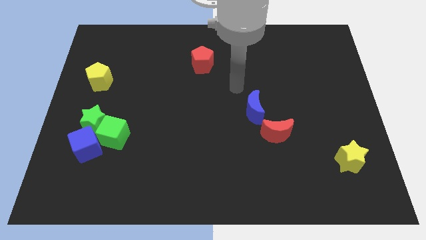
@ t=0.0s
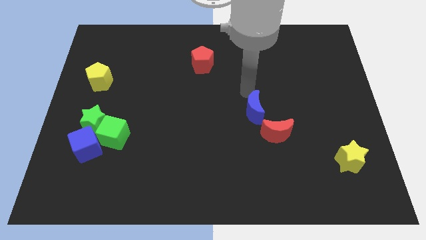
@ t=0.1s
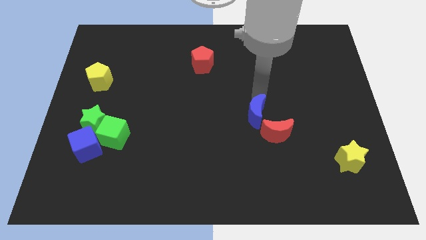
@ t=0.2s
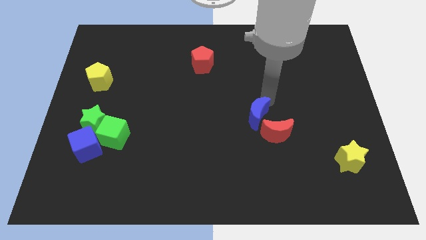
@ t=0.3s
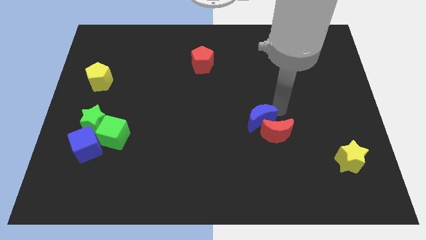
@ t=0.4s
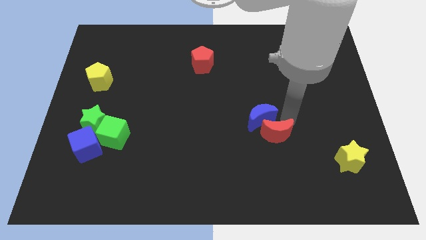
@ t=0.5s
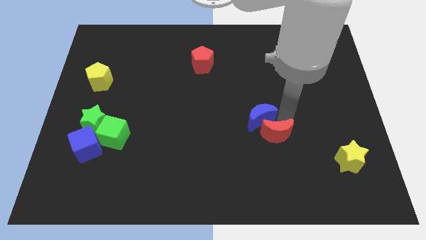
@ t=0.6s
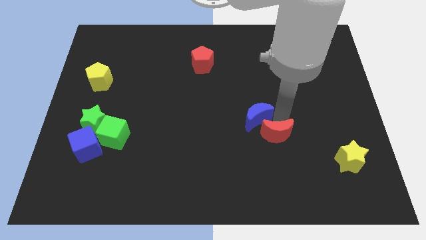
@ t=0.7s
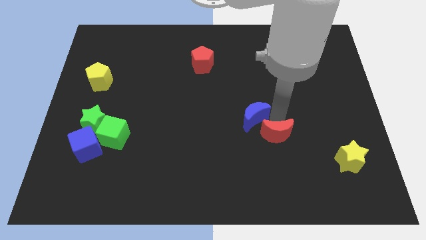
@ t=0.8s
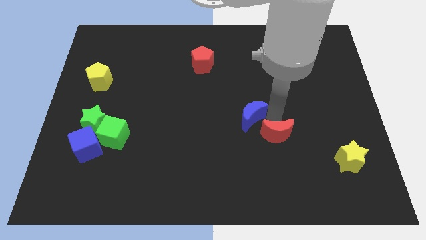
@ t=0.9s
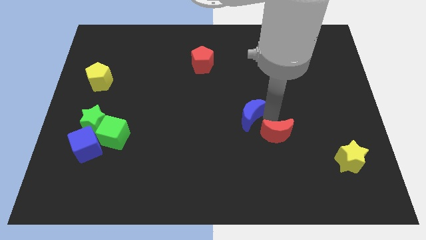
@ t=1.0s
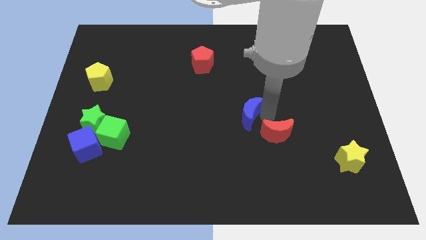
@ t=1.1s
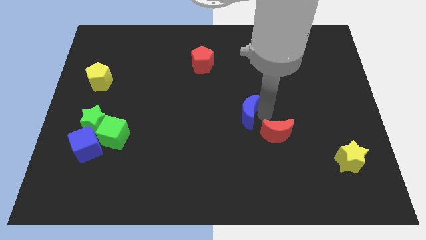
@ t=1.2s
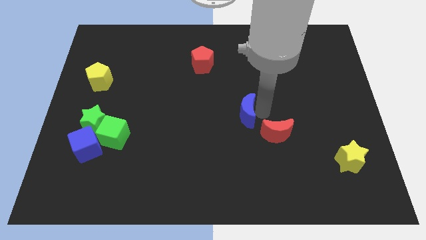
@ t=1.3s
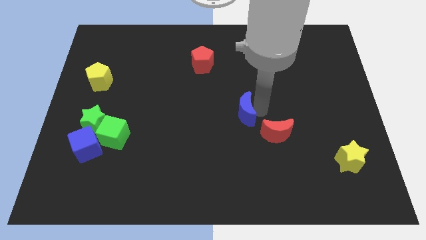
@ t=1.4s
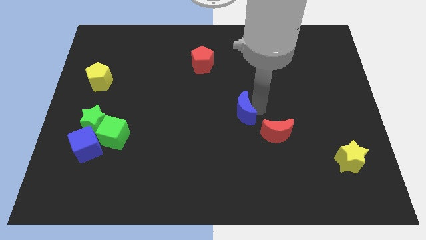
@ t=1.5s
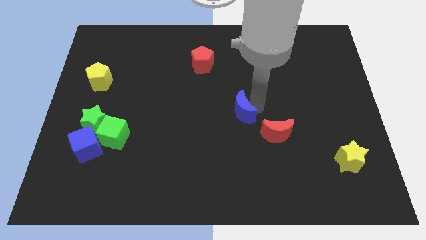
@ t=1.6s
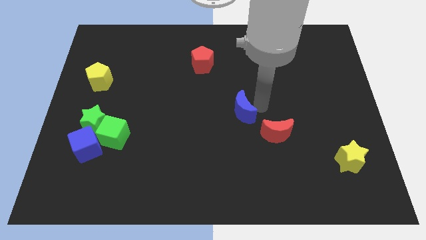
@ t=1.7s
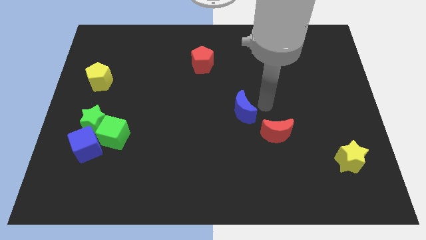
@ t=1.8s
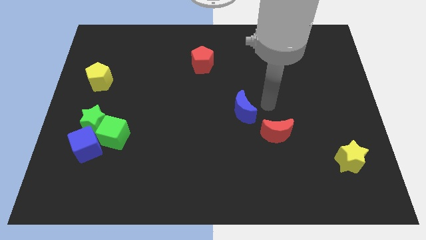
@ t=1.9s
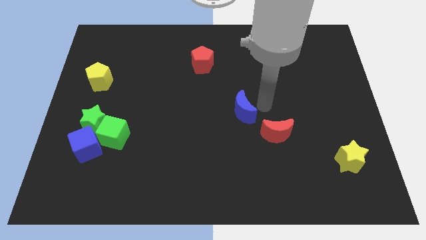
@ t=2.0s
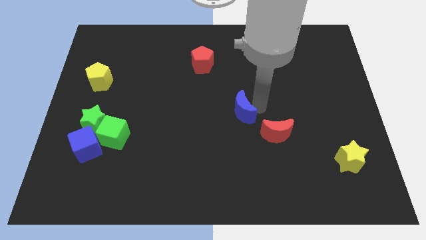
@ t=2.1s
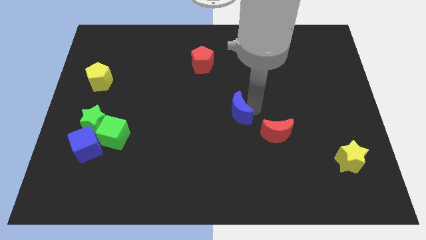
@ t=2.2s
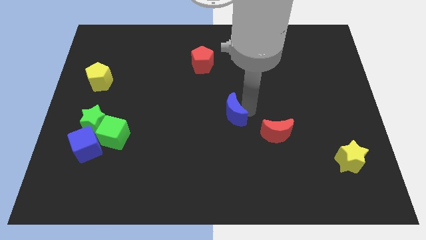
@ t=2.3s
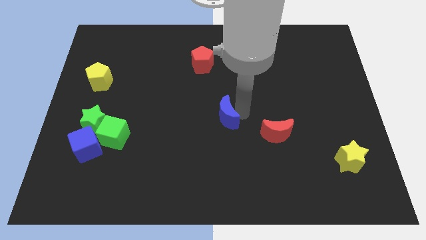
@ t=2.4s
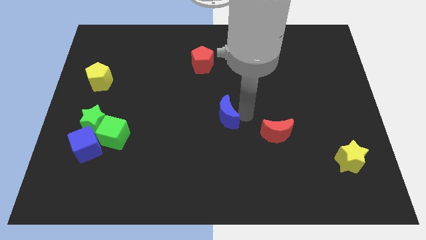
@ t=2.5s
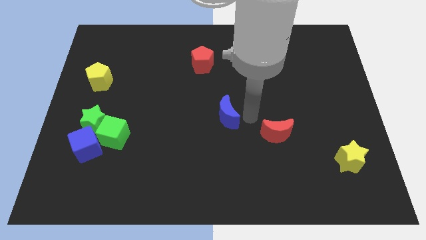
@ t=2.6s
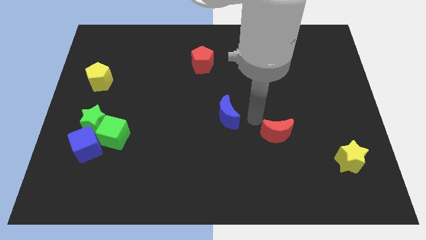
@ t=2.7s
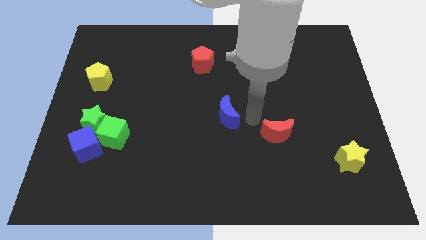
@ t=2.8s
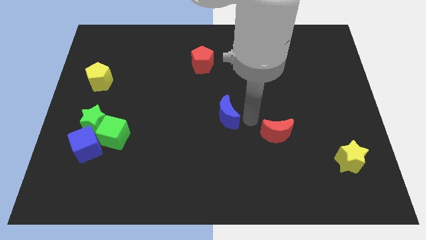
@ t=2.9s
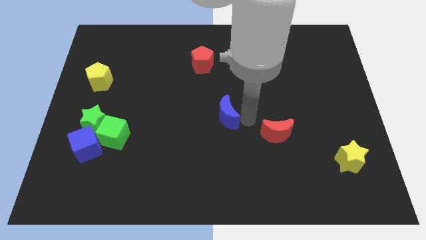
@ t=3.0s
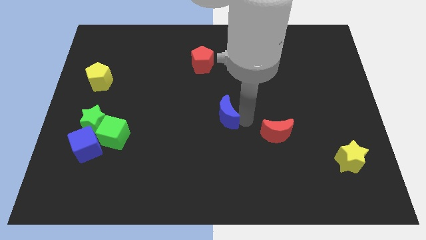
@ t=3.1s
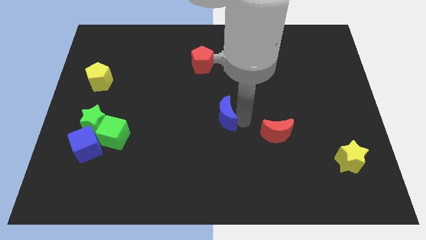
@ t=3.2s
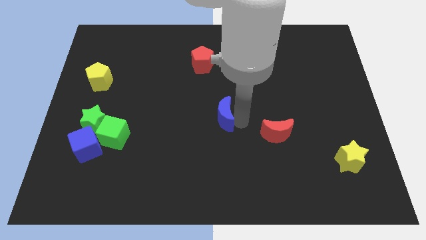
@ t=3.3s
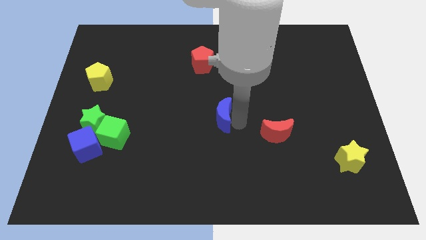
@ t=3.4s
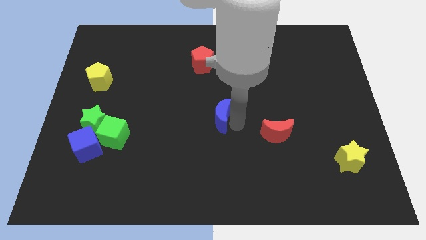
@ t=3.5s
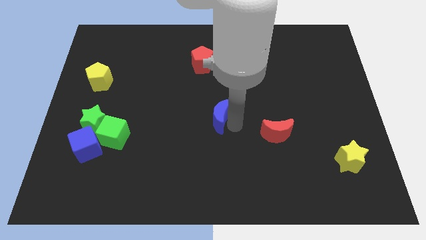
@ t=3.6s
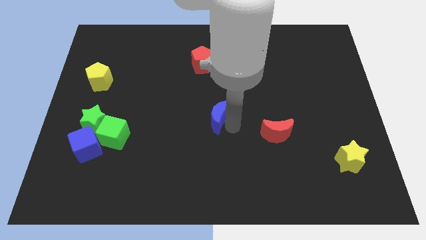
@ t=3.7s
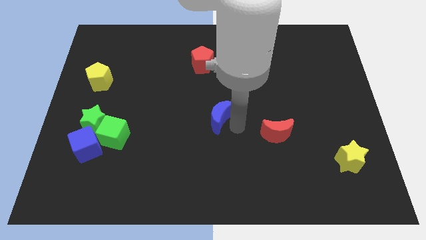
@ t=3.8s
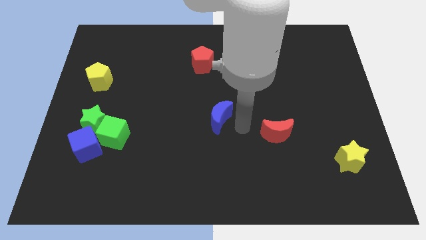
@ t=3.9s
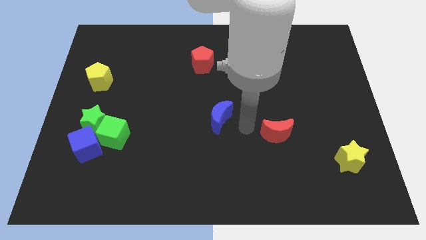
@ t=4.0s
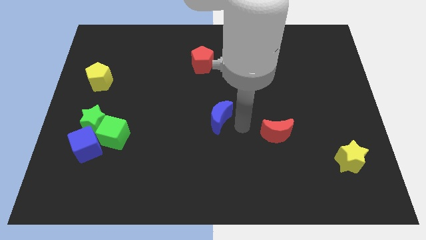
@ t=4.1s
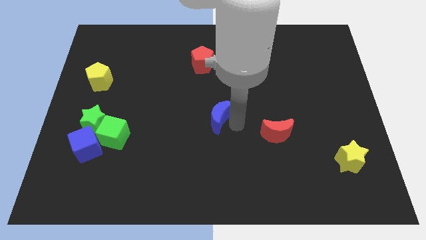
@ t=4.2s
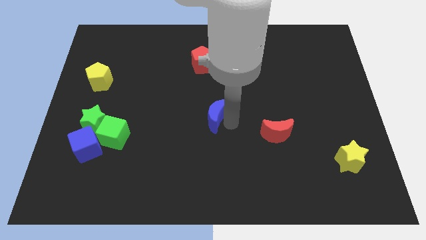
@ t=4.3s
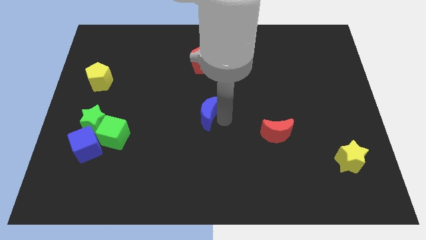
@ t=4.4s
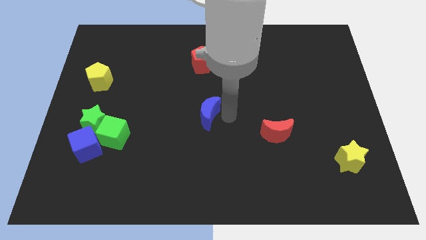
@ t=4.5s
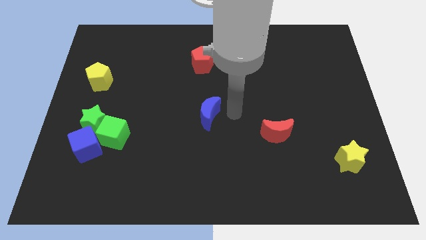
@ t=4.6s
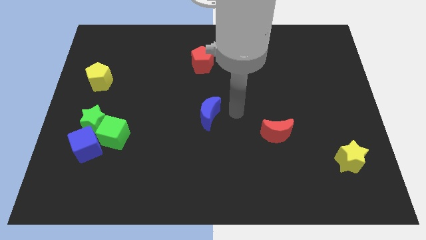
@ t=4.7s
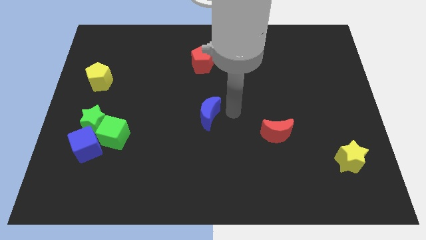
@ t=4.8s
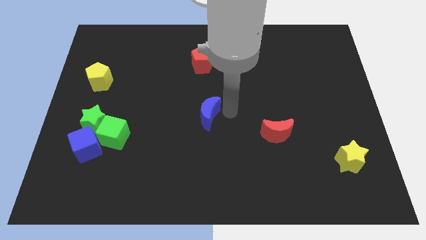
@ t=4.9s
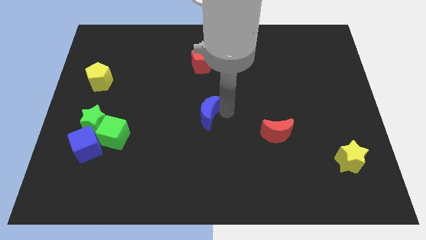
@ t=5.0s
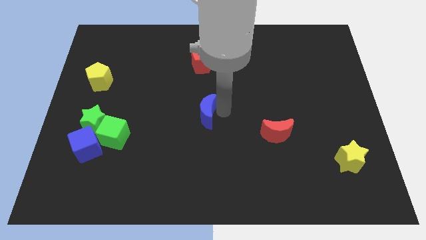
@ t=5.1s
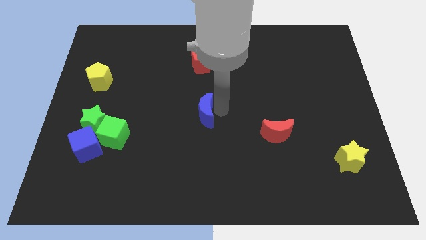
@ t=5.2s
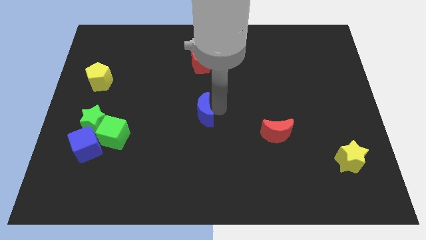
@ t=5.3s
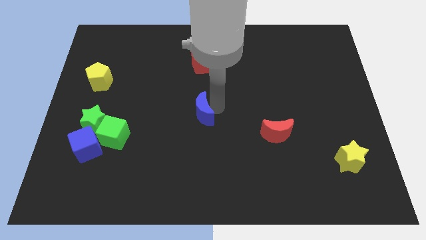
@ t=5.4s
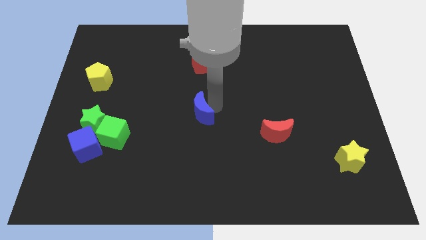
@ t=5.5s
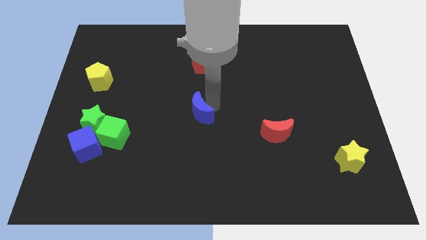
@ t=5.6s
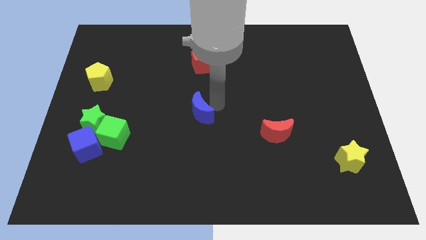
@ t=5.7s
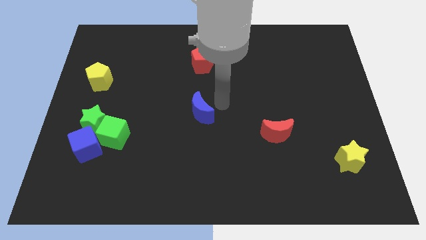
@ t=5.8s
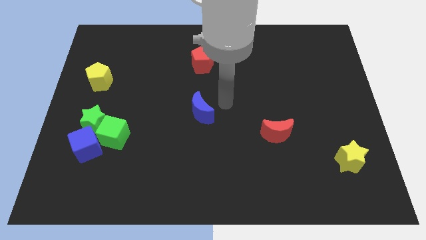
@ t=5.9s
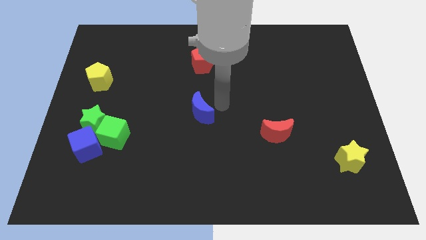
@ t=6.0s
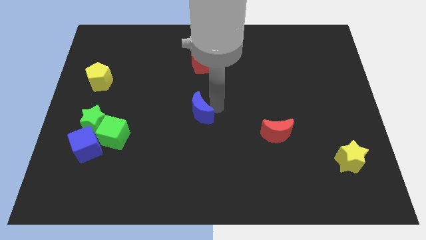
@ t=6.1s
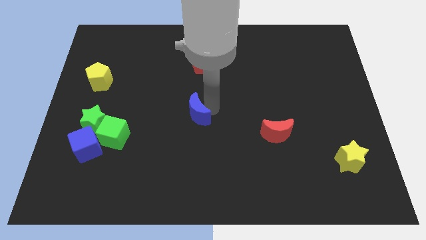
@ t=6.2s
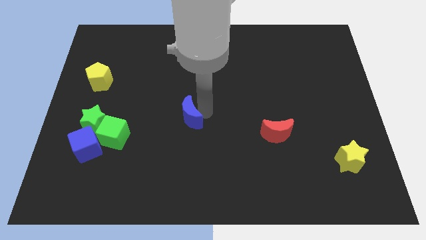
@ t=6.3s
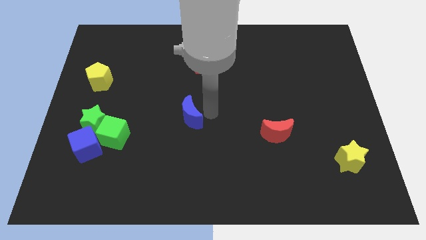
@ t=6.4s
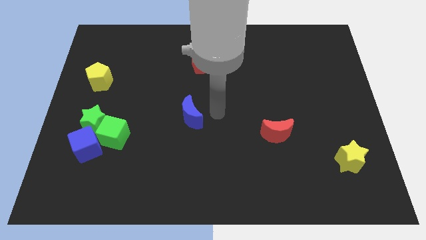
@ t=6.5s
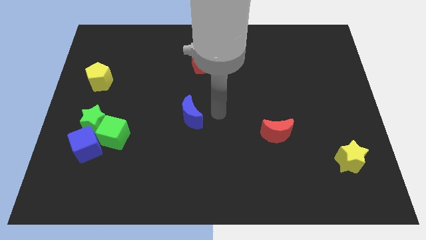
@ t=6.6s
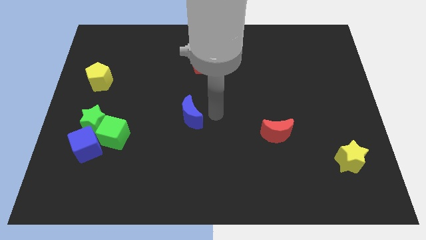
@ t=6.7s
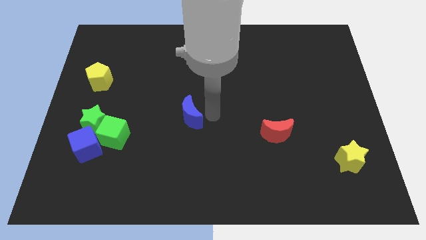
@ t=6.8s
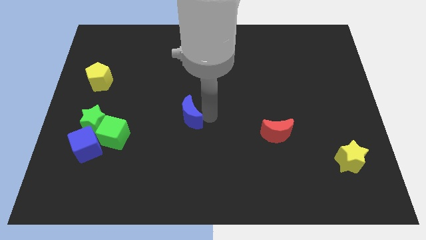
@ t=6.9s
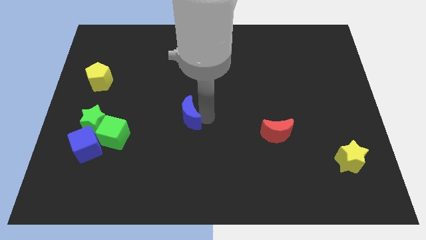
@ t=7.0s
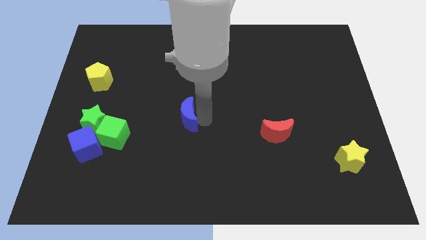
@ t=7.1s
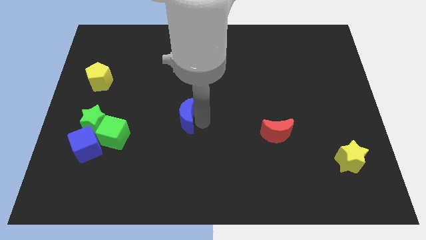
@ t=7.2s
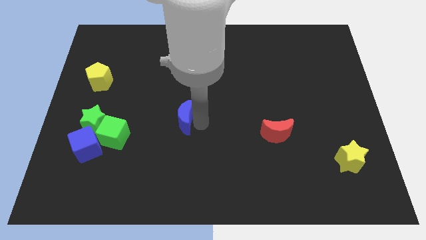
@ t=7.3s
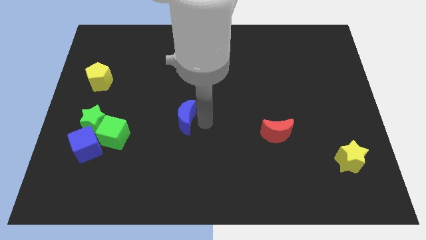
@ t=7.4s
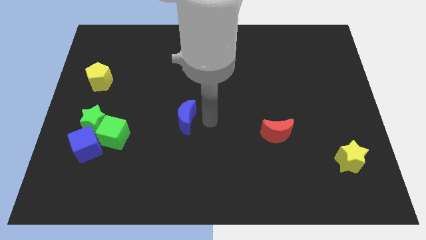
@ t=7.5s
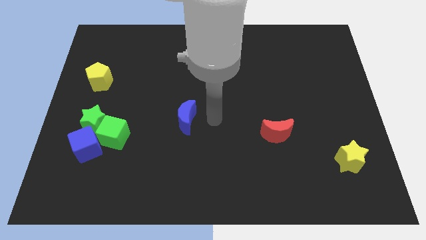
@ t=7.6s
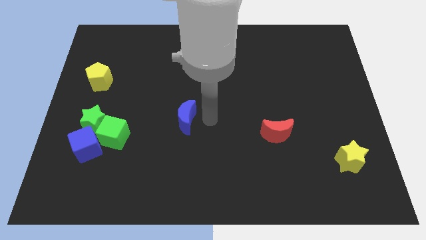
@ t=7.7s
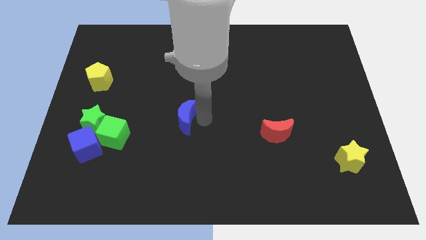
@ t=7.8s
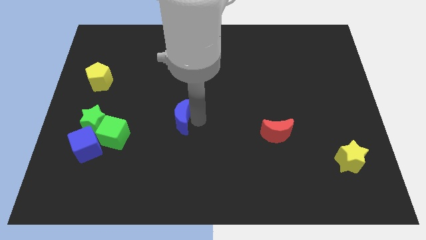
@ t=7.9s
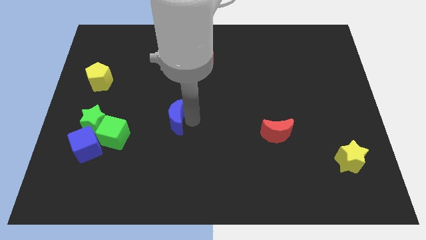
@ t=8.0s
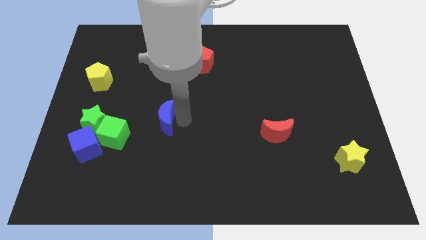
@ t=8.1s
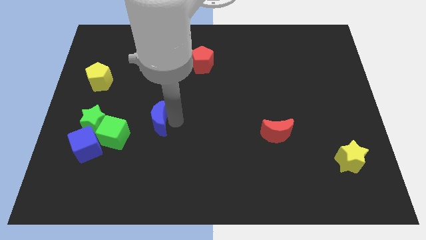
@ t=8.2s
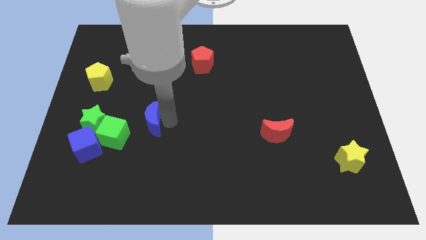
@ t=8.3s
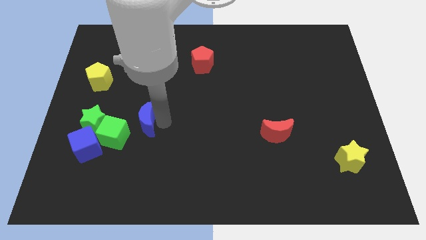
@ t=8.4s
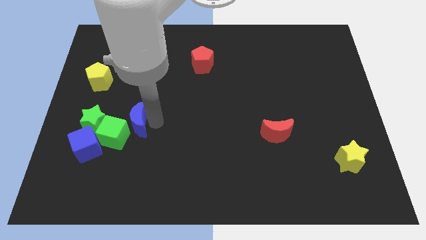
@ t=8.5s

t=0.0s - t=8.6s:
put the blue moon to the top right side of the blue cube
